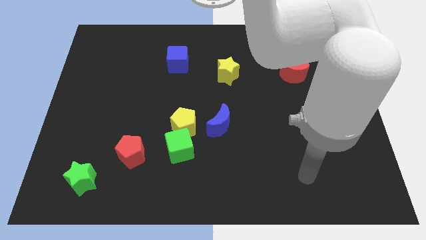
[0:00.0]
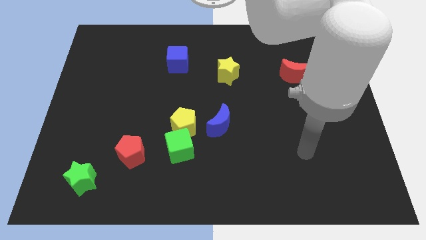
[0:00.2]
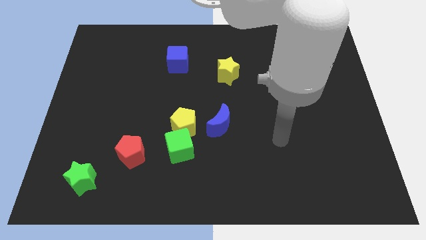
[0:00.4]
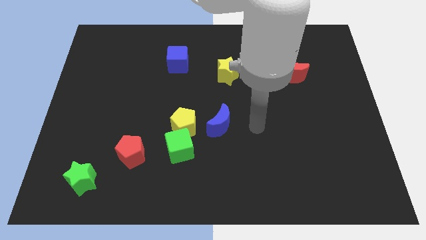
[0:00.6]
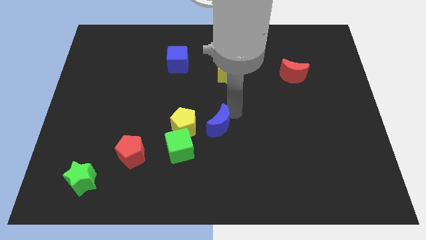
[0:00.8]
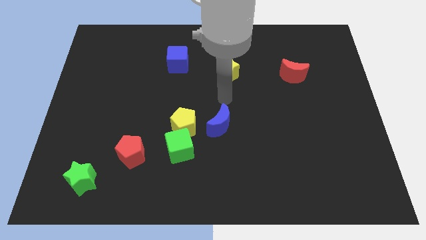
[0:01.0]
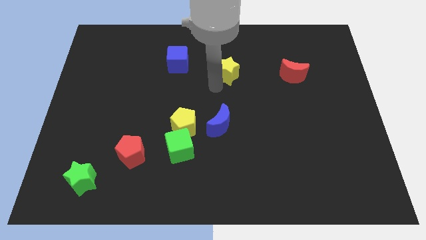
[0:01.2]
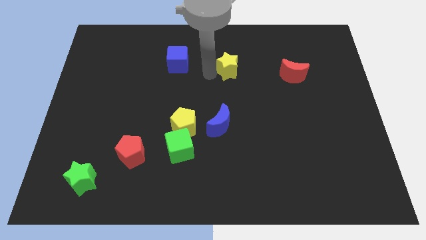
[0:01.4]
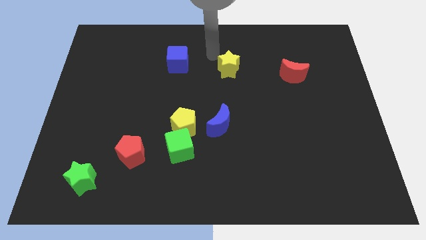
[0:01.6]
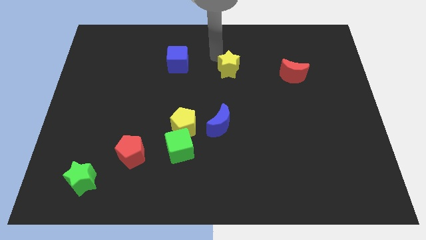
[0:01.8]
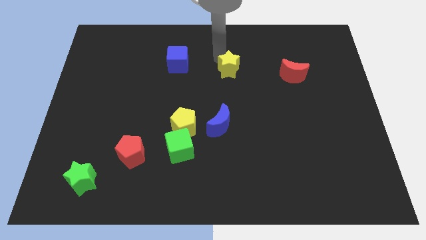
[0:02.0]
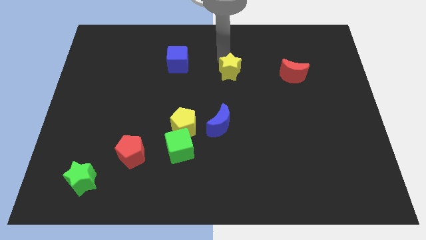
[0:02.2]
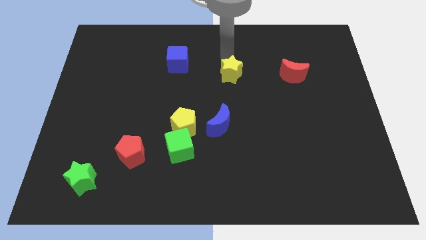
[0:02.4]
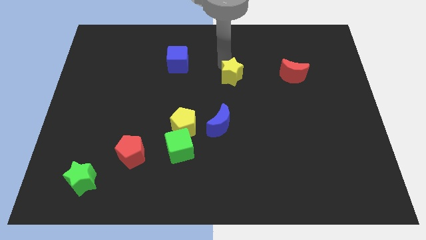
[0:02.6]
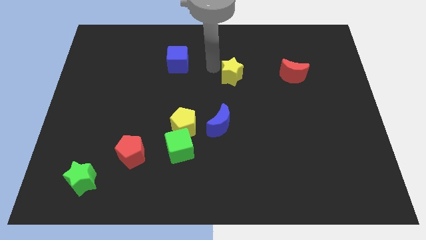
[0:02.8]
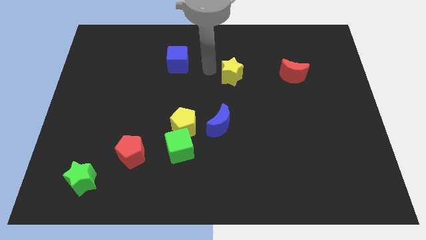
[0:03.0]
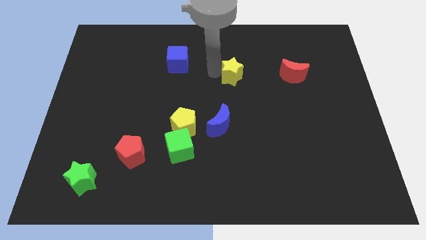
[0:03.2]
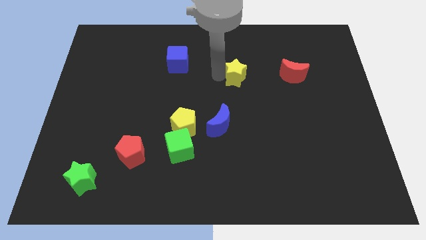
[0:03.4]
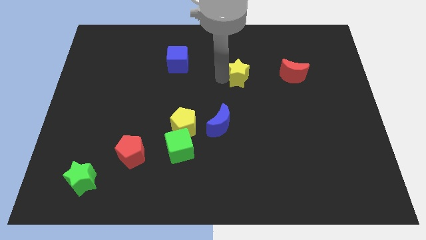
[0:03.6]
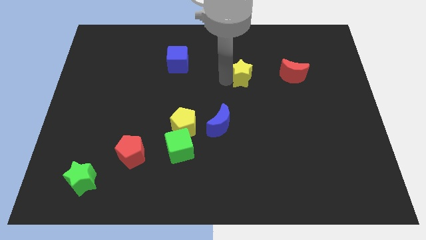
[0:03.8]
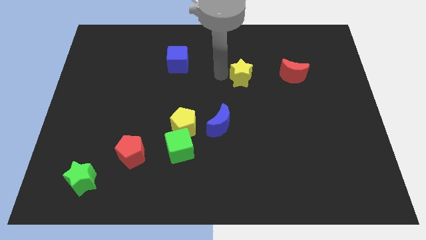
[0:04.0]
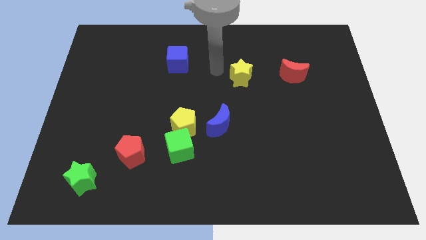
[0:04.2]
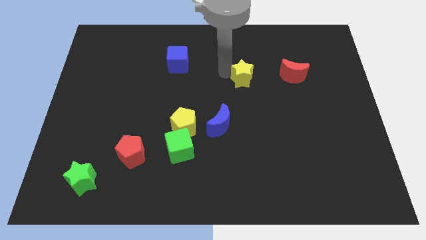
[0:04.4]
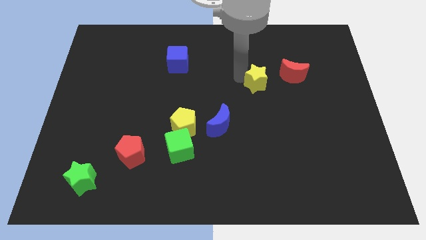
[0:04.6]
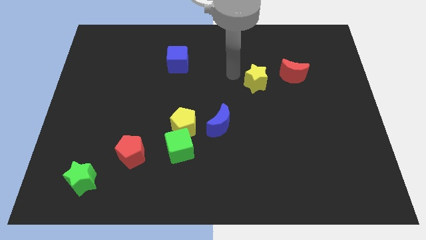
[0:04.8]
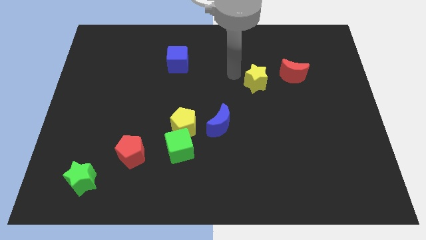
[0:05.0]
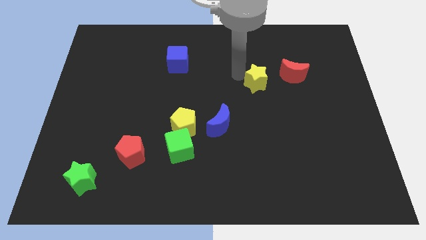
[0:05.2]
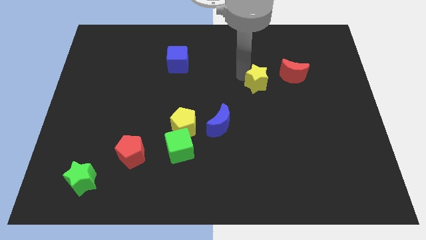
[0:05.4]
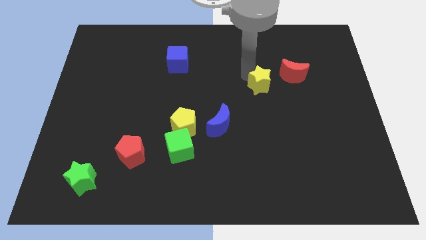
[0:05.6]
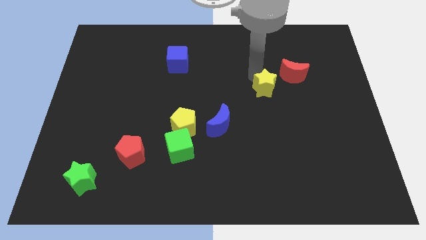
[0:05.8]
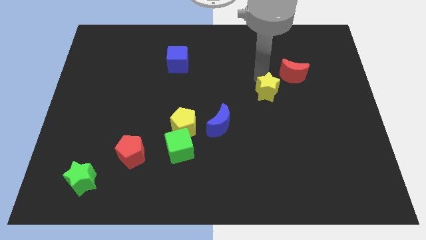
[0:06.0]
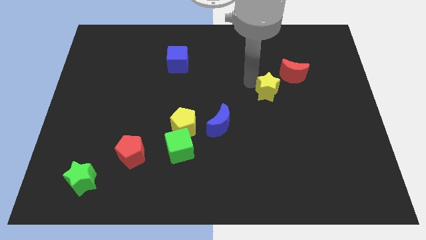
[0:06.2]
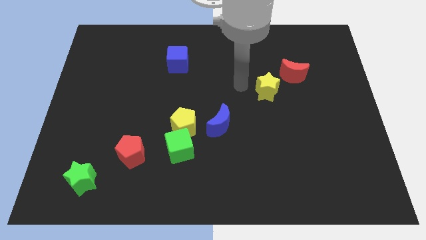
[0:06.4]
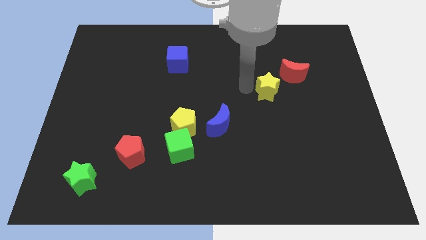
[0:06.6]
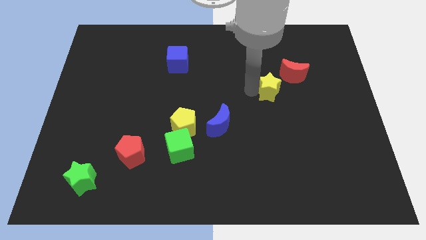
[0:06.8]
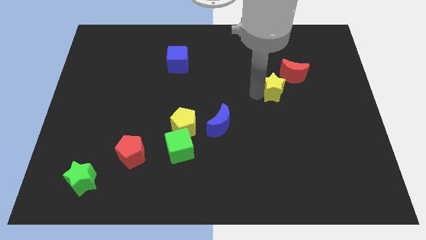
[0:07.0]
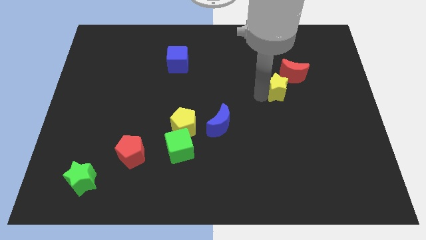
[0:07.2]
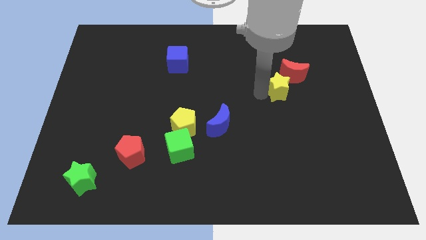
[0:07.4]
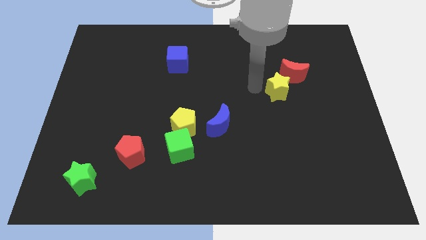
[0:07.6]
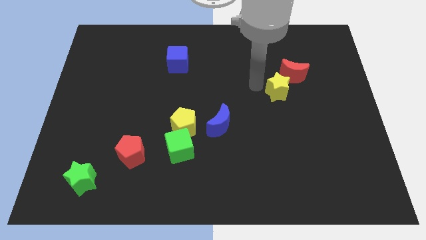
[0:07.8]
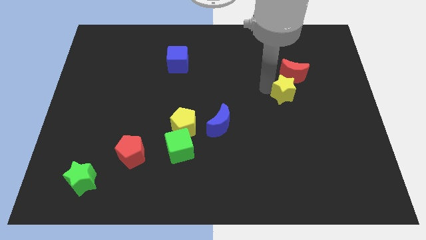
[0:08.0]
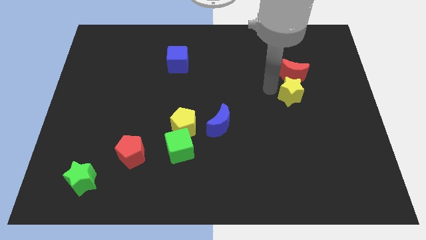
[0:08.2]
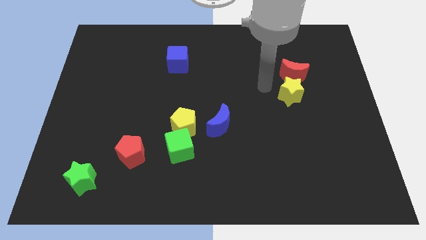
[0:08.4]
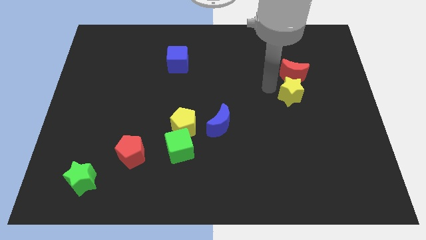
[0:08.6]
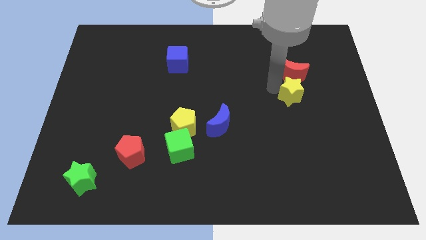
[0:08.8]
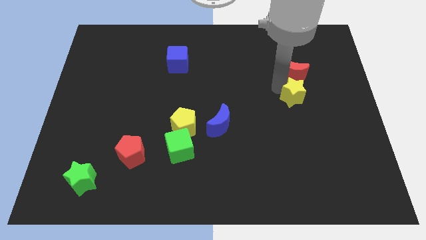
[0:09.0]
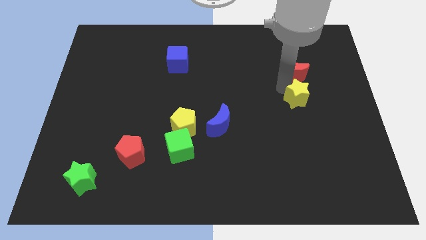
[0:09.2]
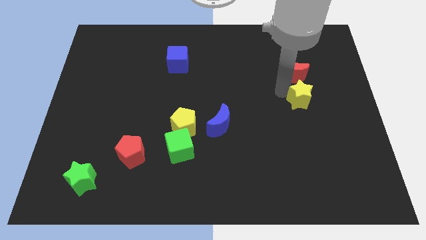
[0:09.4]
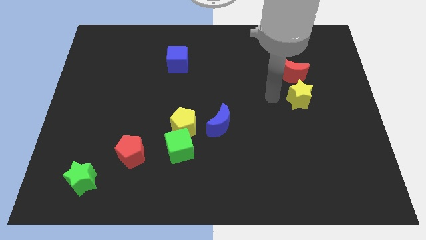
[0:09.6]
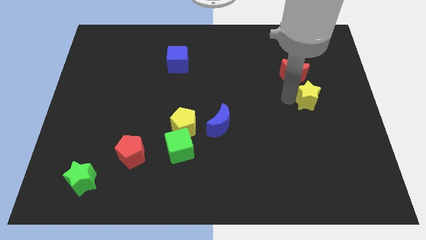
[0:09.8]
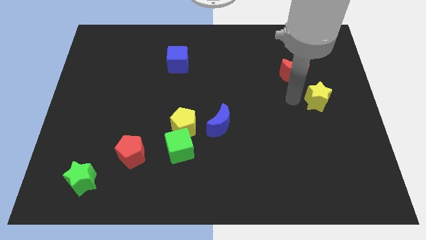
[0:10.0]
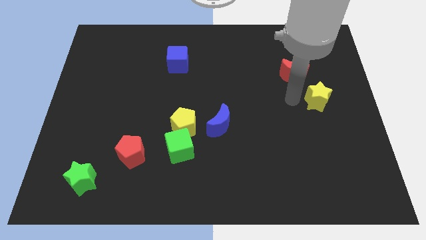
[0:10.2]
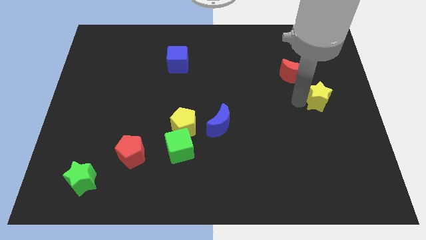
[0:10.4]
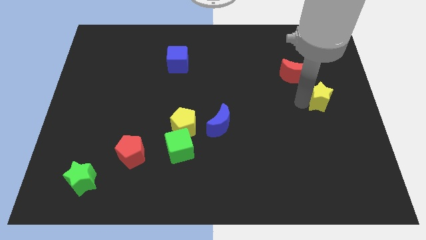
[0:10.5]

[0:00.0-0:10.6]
put the yellow star to the right side

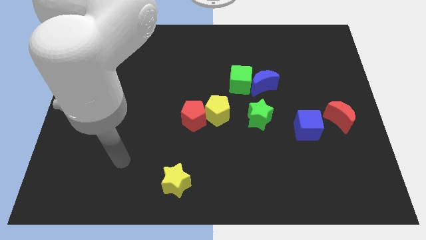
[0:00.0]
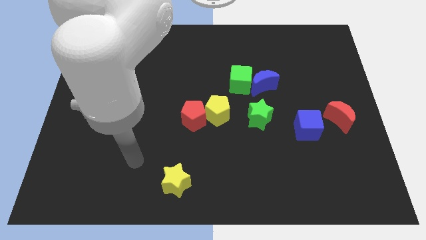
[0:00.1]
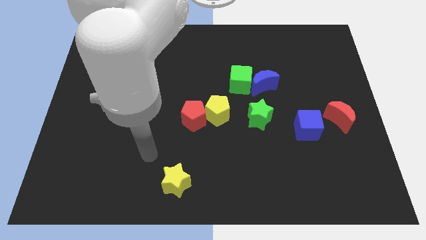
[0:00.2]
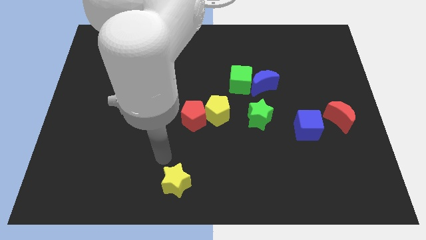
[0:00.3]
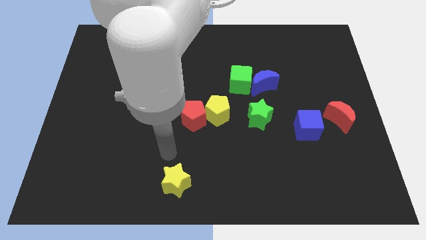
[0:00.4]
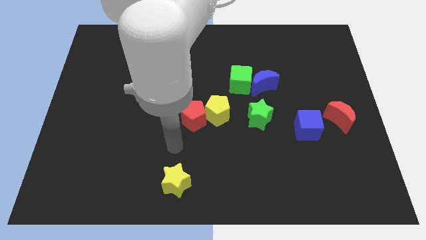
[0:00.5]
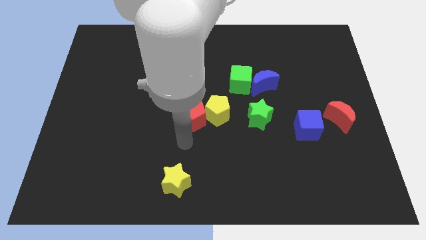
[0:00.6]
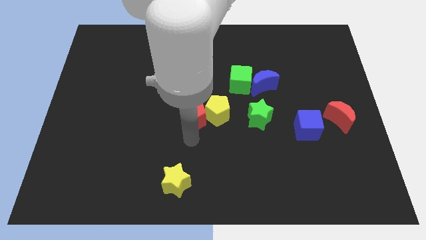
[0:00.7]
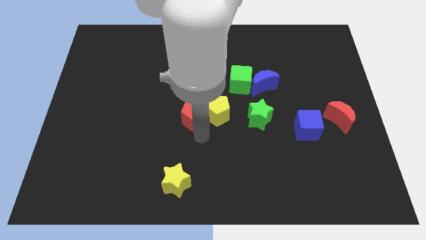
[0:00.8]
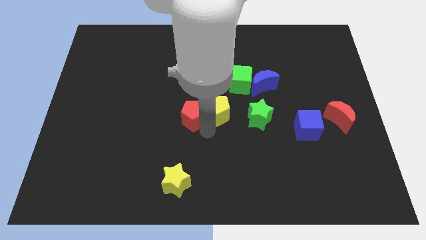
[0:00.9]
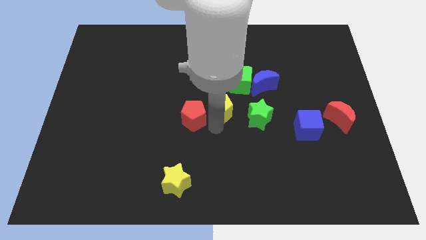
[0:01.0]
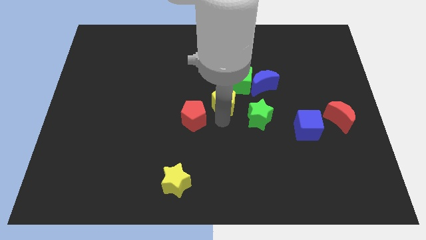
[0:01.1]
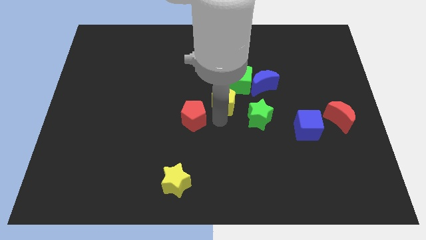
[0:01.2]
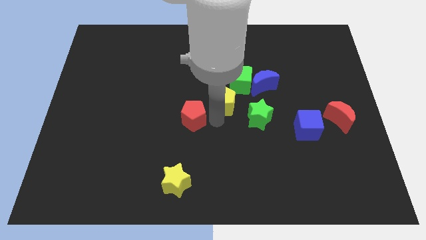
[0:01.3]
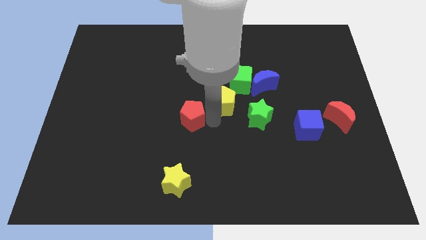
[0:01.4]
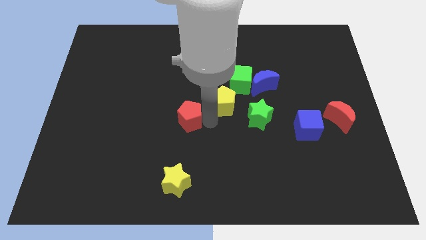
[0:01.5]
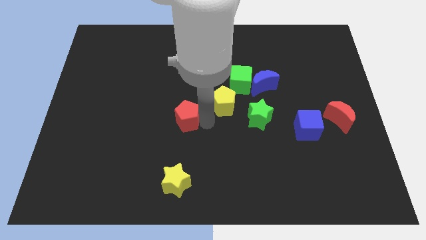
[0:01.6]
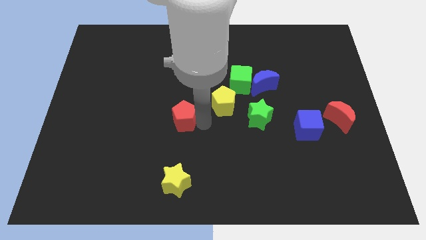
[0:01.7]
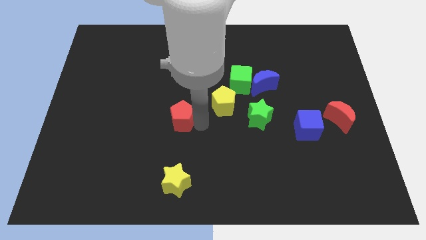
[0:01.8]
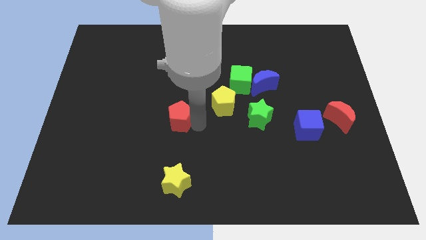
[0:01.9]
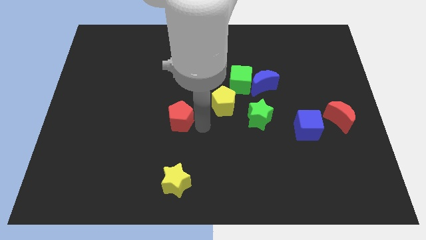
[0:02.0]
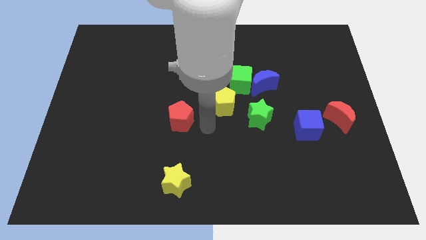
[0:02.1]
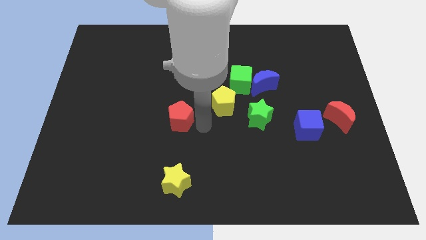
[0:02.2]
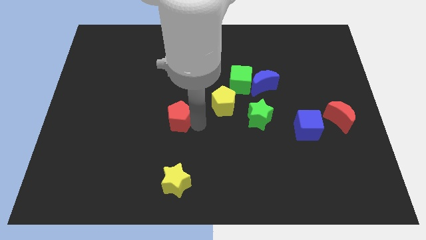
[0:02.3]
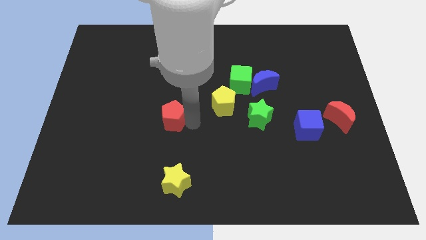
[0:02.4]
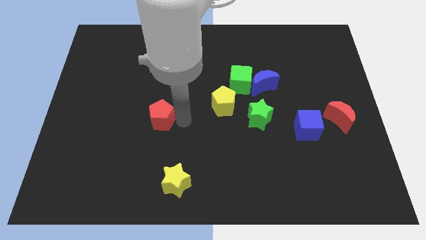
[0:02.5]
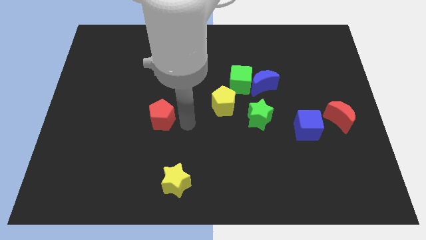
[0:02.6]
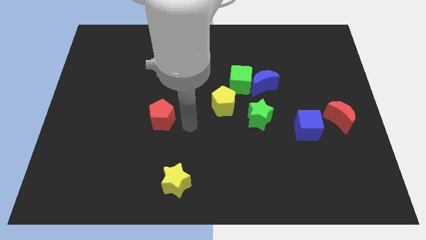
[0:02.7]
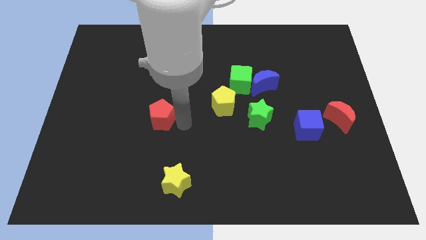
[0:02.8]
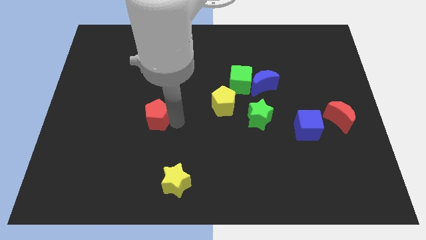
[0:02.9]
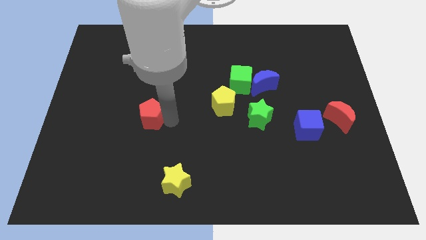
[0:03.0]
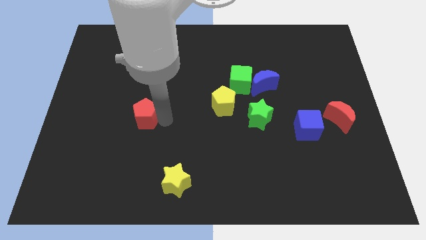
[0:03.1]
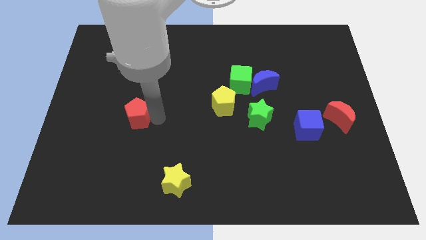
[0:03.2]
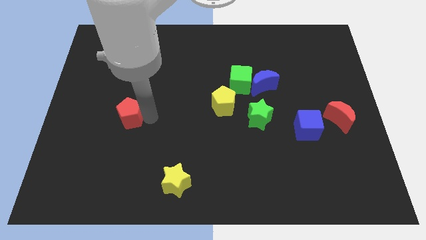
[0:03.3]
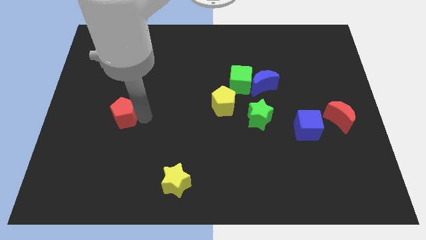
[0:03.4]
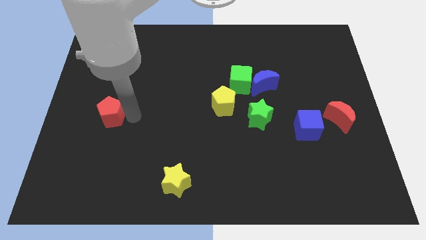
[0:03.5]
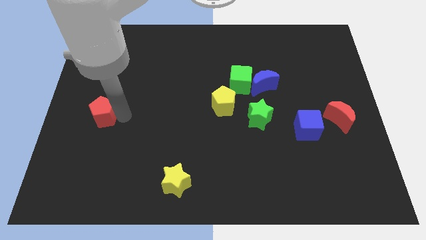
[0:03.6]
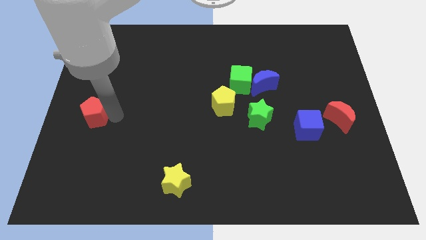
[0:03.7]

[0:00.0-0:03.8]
slide the red pentagon to the left side of the board
